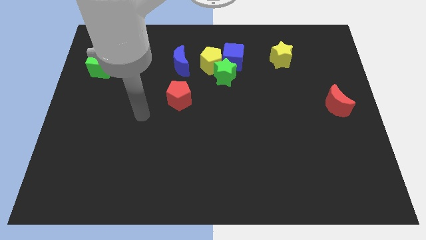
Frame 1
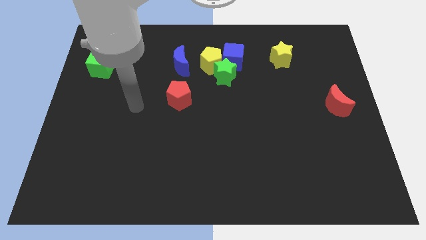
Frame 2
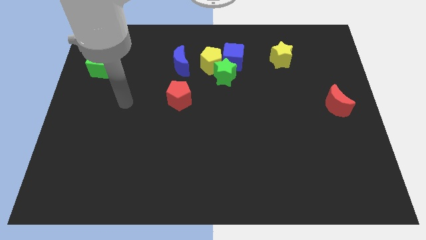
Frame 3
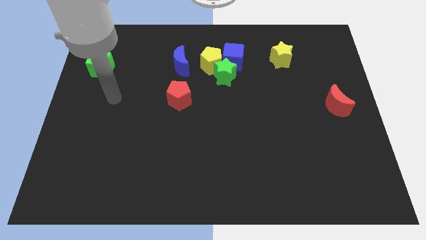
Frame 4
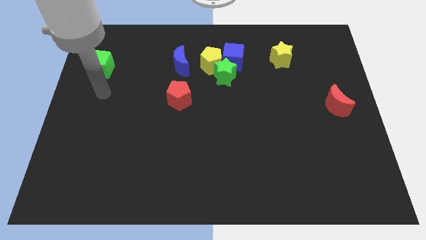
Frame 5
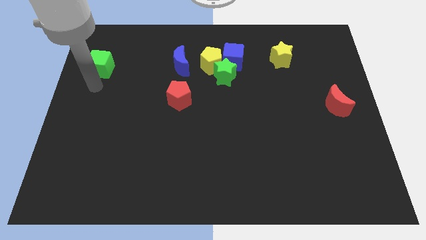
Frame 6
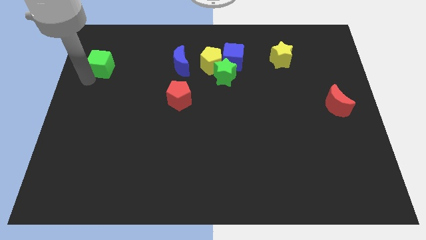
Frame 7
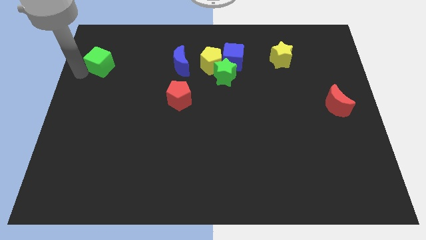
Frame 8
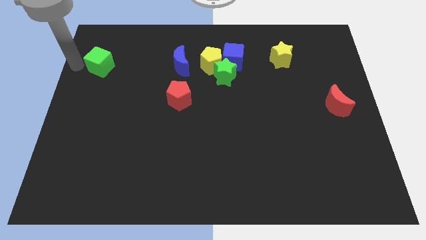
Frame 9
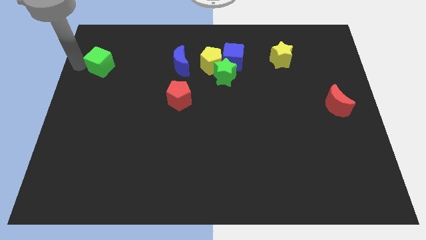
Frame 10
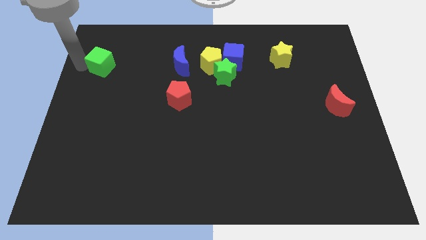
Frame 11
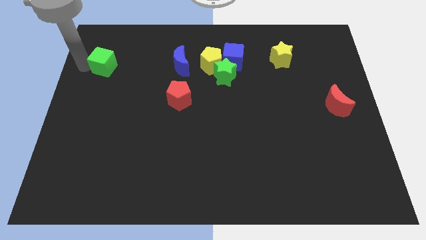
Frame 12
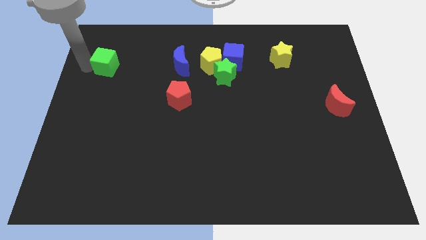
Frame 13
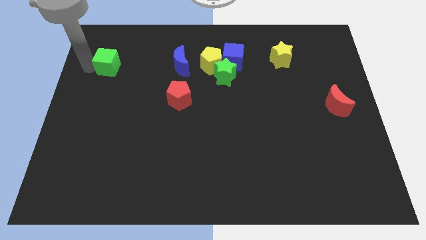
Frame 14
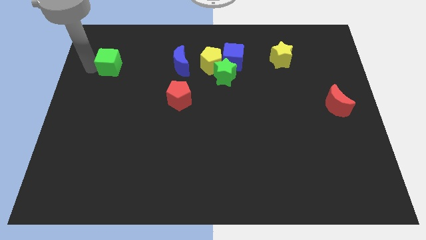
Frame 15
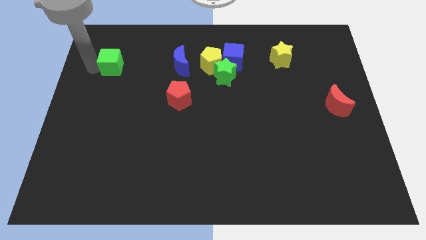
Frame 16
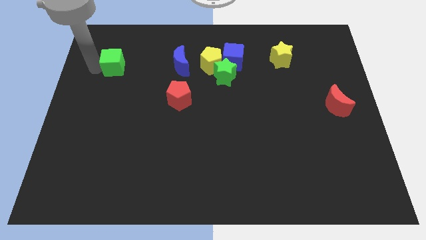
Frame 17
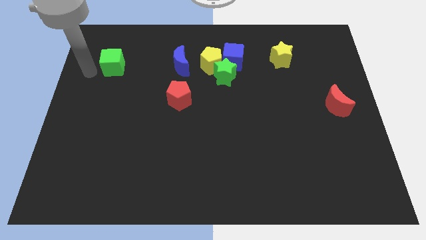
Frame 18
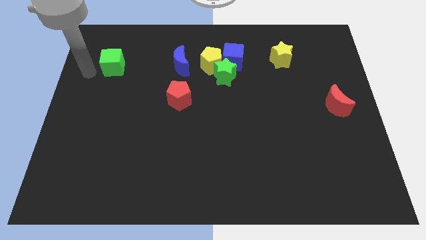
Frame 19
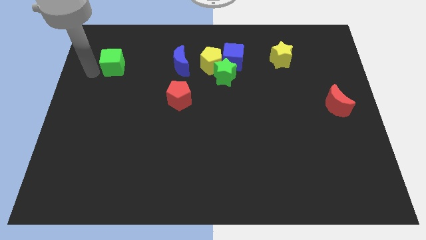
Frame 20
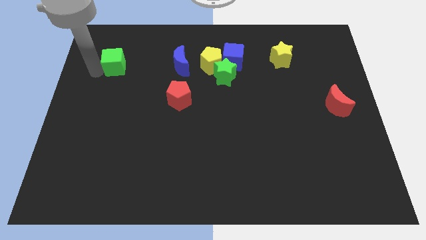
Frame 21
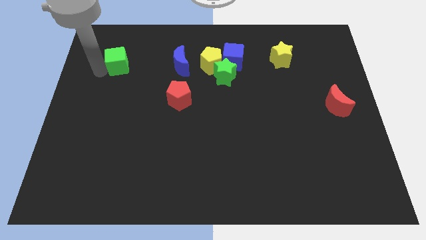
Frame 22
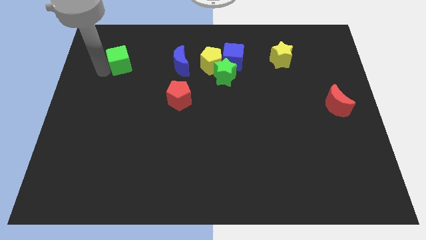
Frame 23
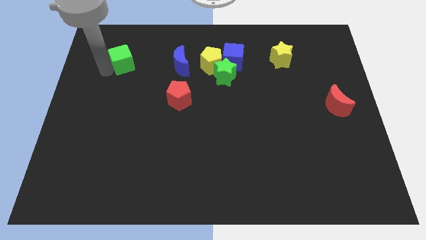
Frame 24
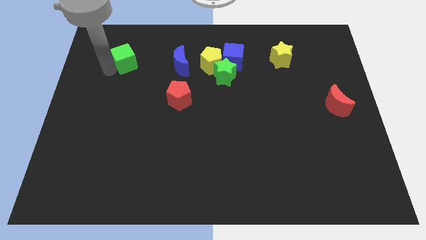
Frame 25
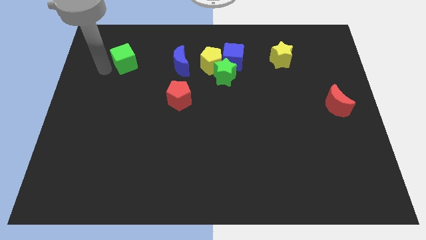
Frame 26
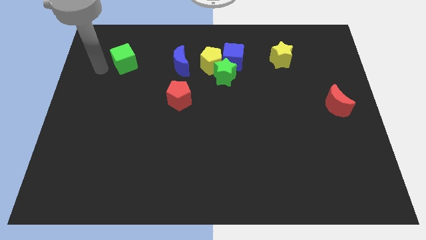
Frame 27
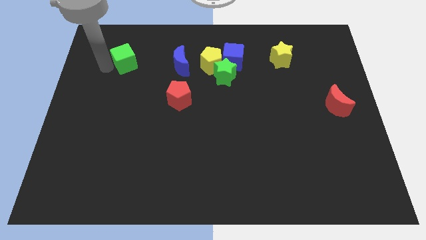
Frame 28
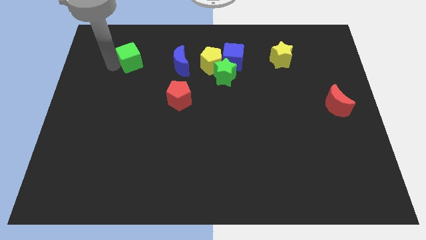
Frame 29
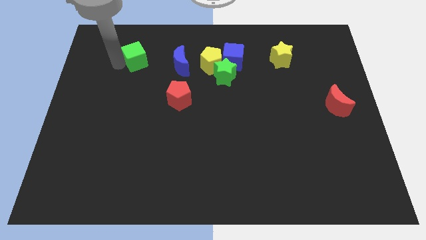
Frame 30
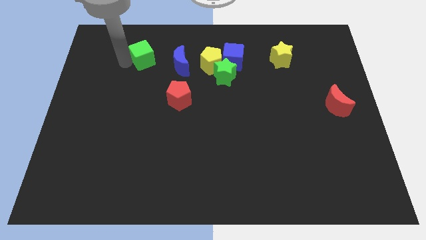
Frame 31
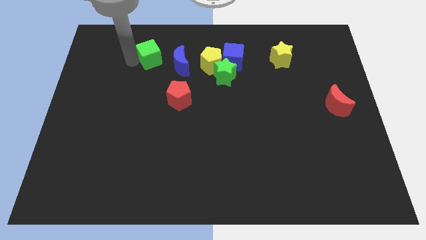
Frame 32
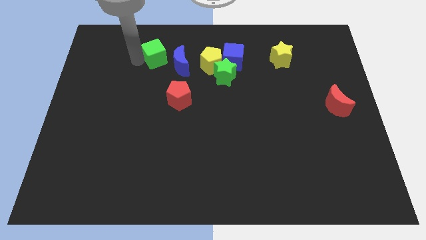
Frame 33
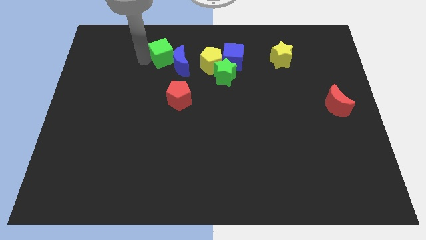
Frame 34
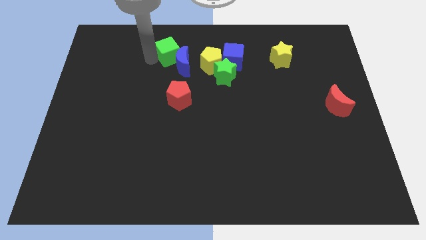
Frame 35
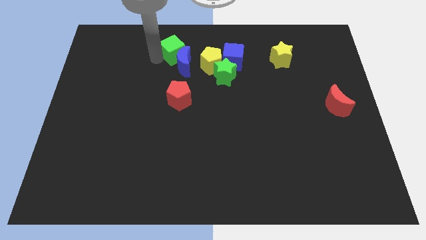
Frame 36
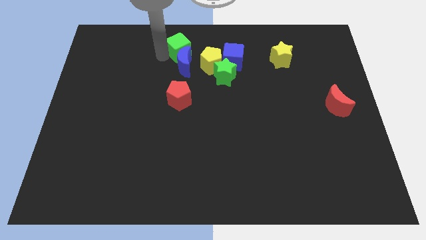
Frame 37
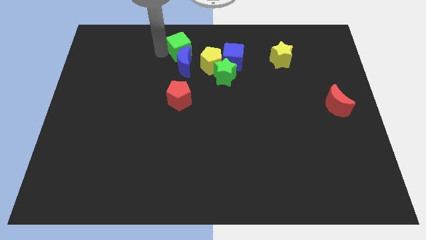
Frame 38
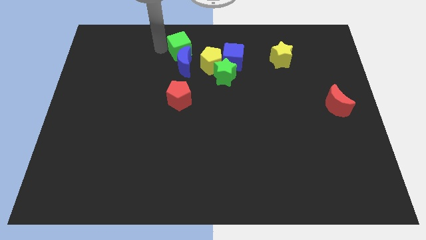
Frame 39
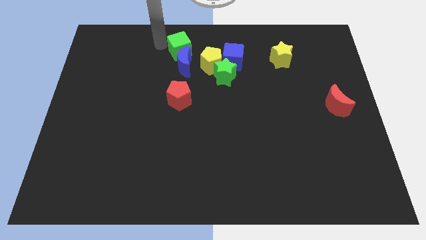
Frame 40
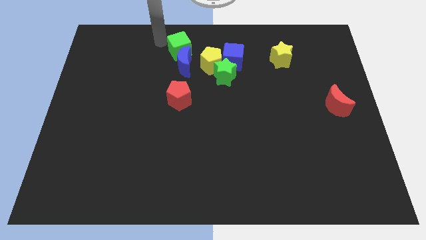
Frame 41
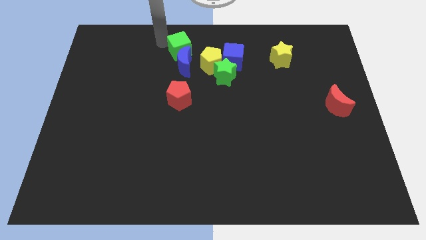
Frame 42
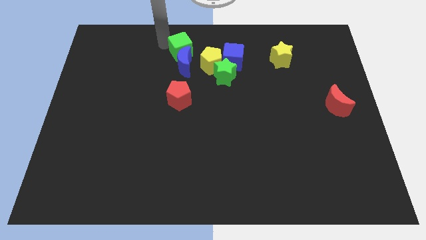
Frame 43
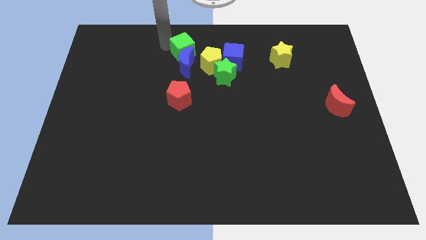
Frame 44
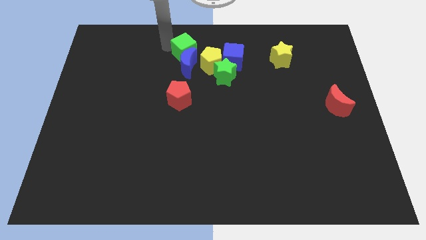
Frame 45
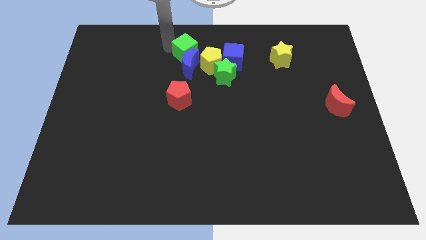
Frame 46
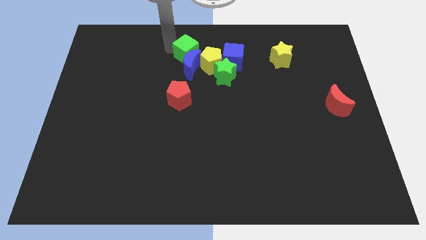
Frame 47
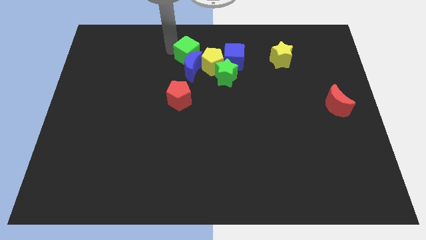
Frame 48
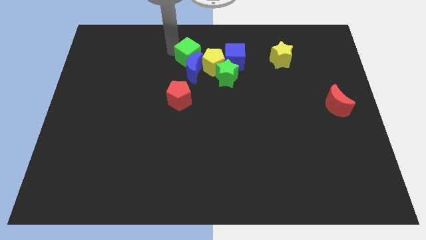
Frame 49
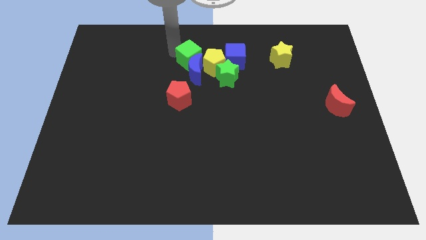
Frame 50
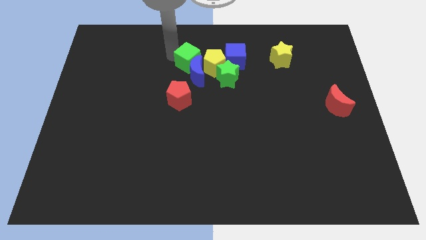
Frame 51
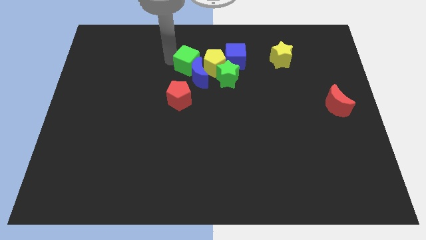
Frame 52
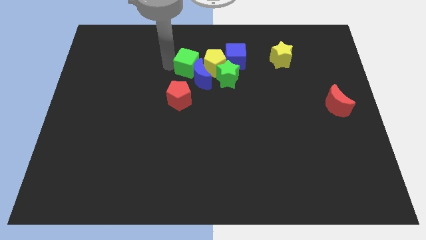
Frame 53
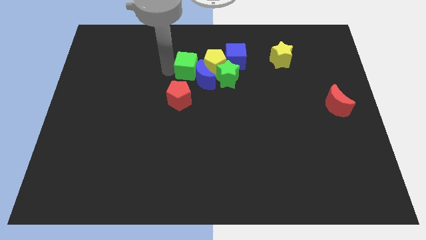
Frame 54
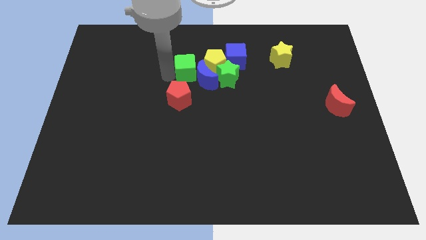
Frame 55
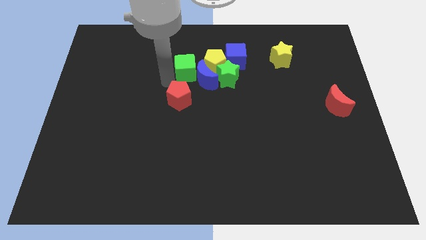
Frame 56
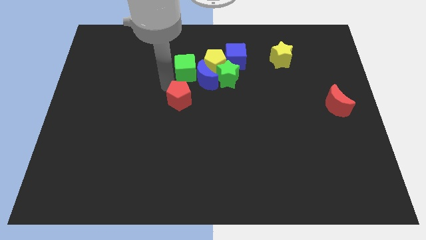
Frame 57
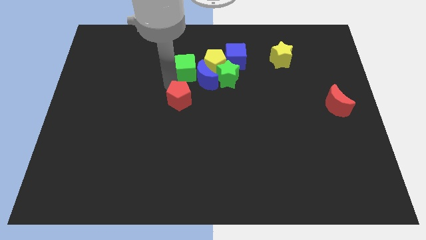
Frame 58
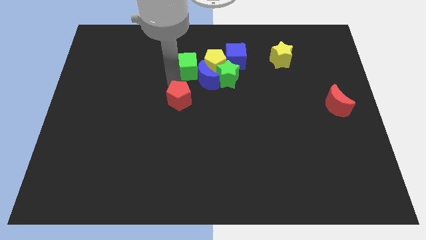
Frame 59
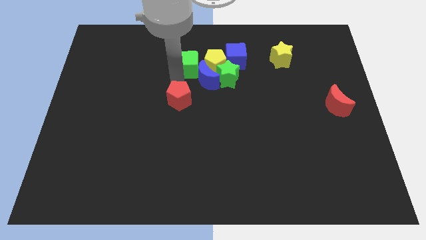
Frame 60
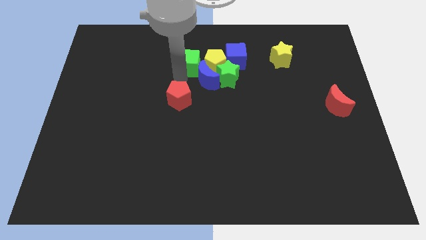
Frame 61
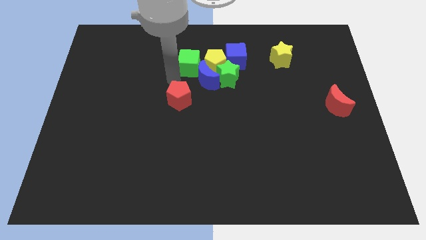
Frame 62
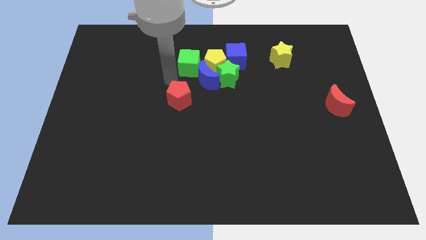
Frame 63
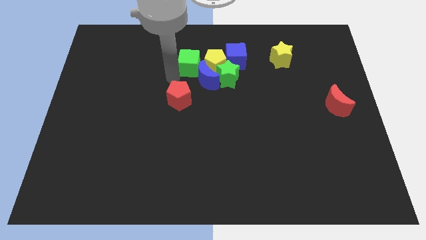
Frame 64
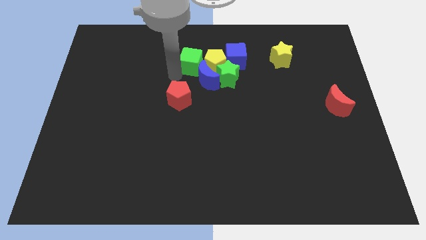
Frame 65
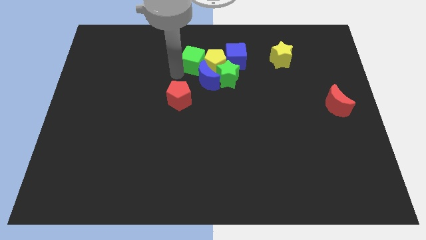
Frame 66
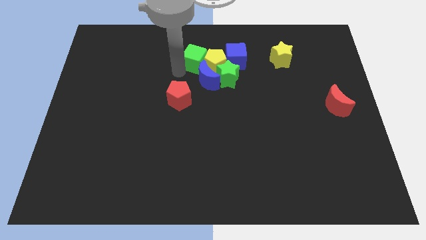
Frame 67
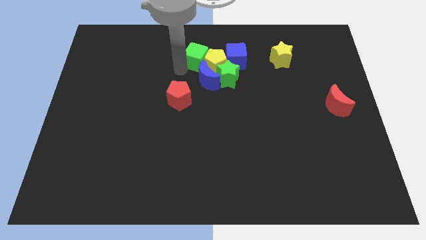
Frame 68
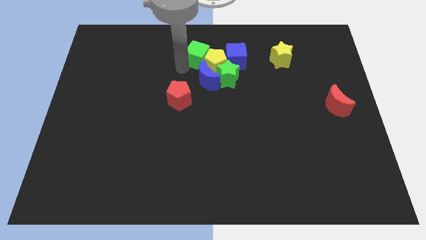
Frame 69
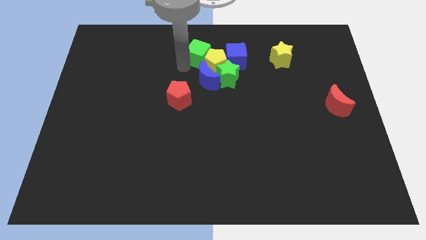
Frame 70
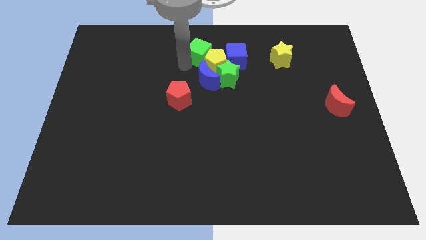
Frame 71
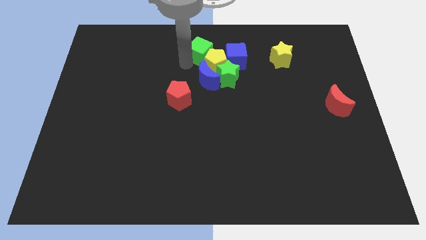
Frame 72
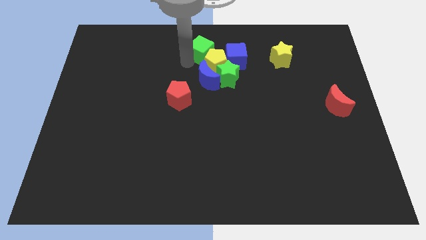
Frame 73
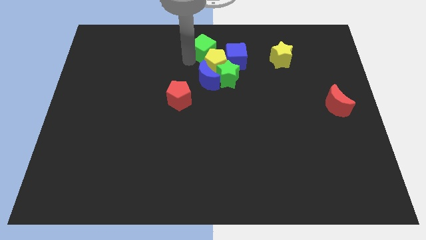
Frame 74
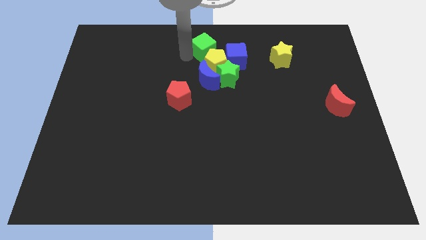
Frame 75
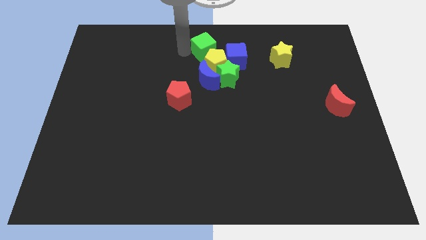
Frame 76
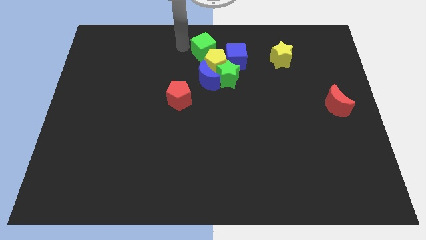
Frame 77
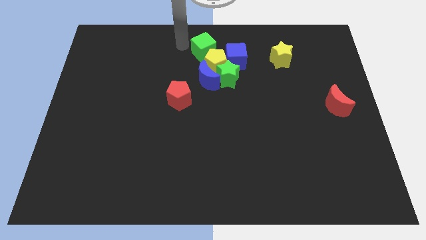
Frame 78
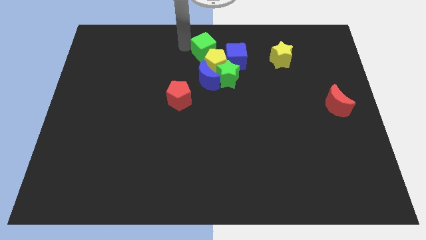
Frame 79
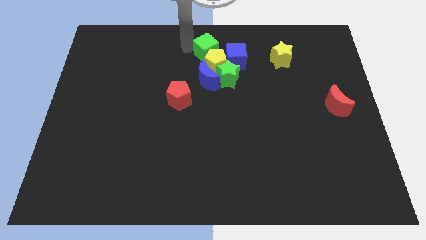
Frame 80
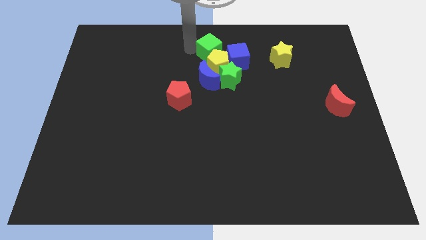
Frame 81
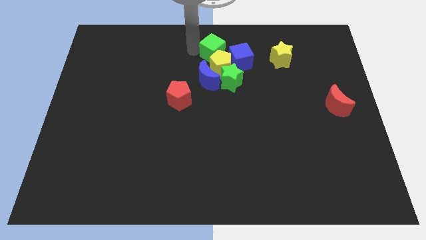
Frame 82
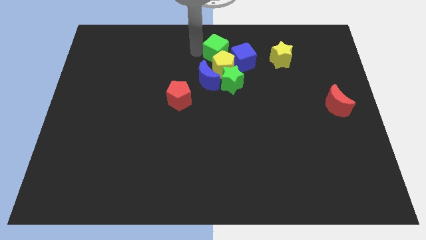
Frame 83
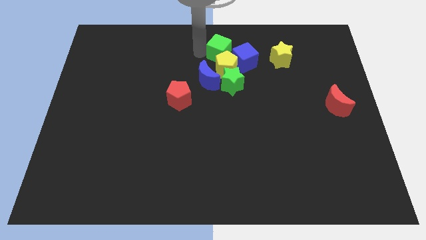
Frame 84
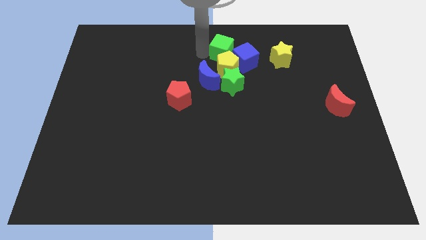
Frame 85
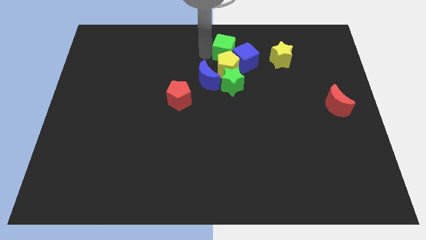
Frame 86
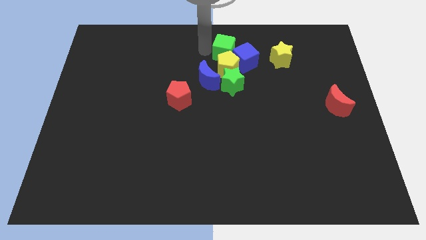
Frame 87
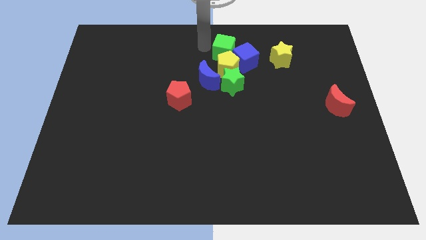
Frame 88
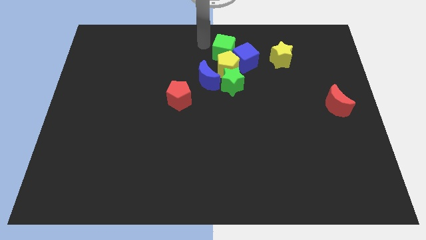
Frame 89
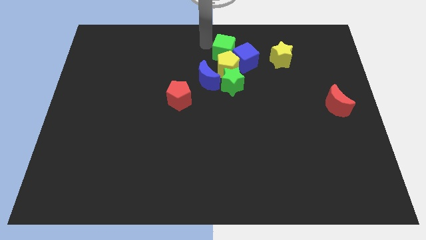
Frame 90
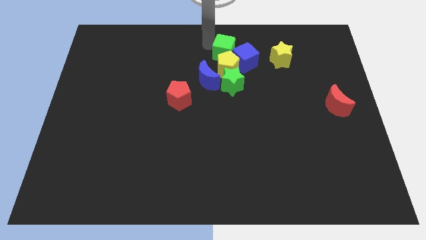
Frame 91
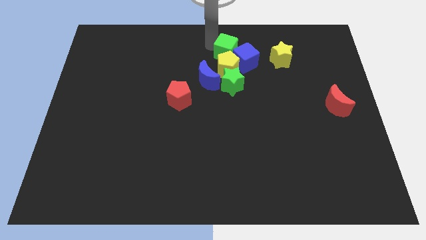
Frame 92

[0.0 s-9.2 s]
slide the green cube towards the blue cube
